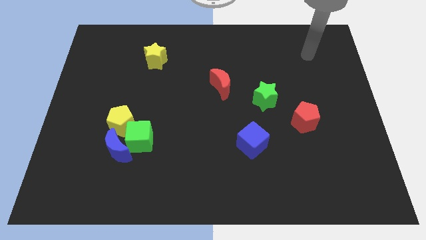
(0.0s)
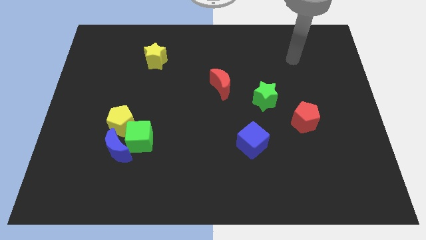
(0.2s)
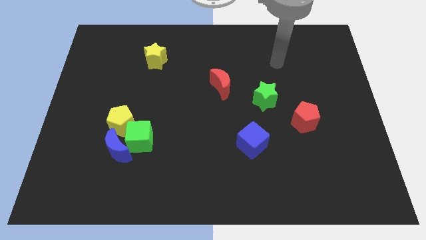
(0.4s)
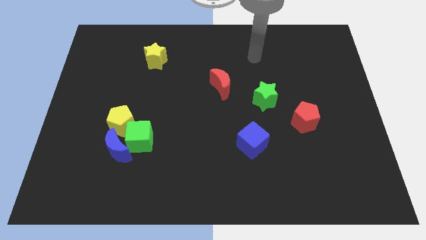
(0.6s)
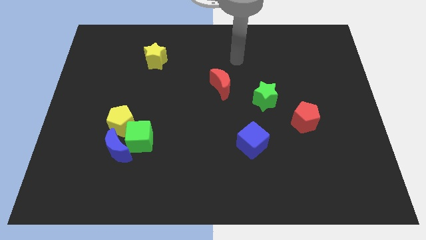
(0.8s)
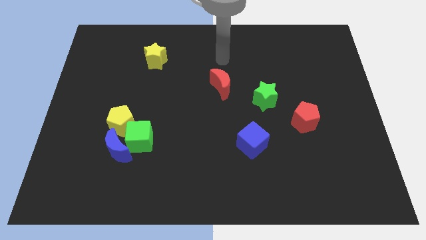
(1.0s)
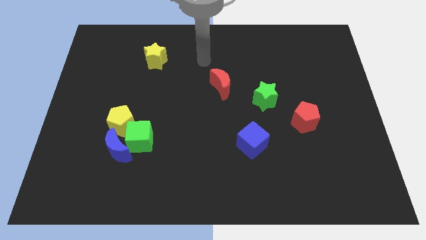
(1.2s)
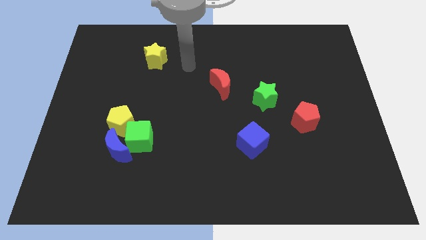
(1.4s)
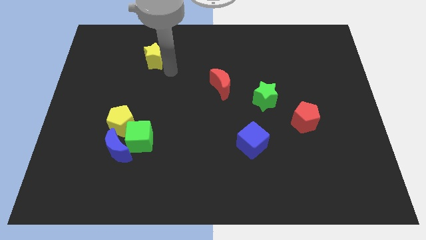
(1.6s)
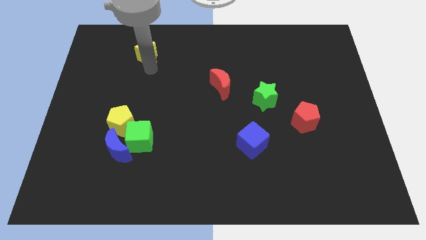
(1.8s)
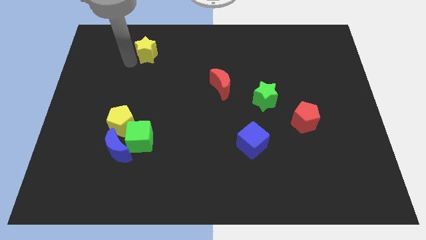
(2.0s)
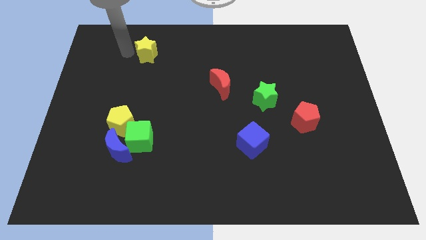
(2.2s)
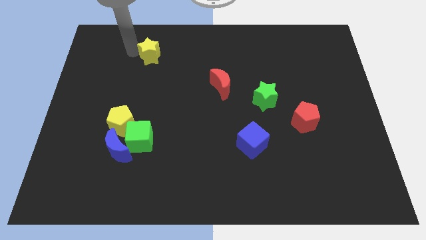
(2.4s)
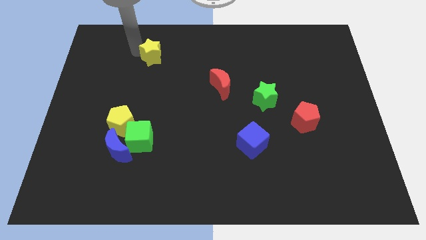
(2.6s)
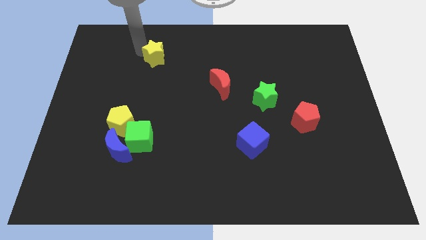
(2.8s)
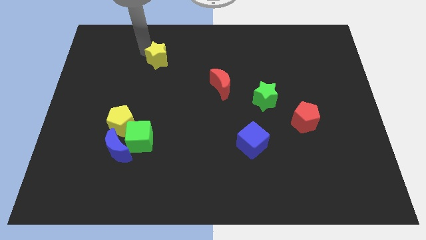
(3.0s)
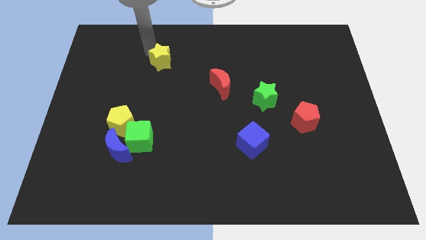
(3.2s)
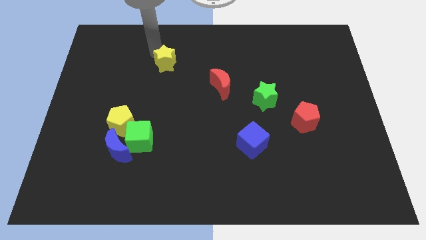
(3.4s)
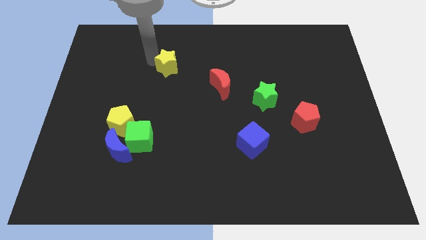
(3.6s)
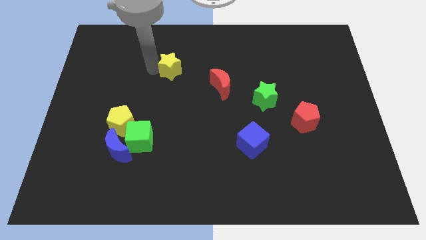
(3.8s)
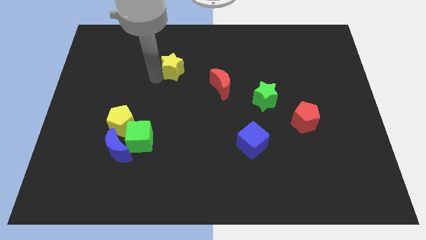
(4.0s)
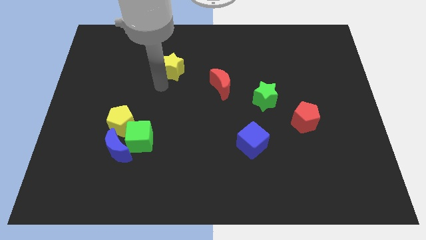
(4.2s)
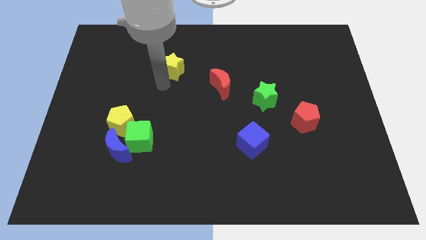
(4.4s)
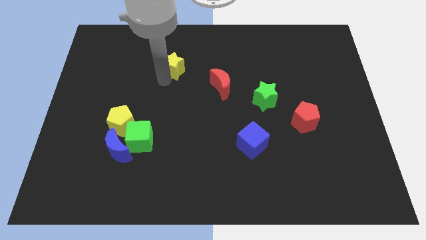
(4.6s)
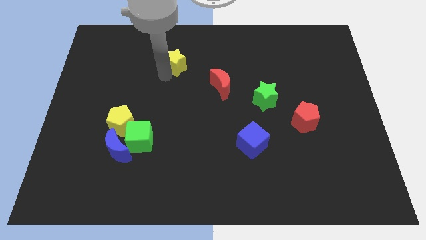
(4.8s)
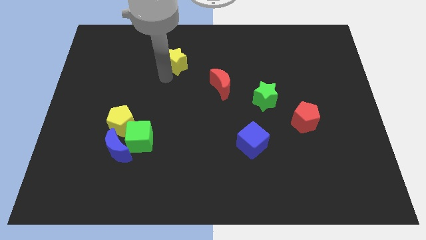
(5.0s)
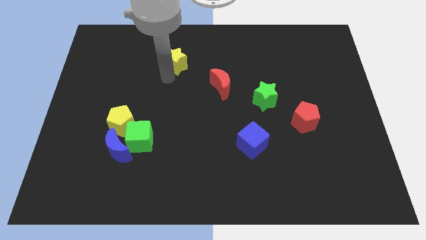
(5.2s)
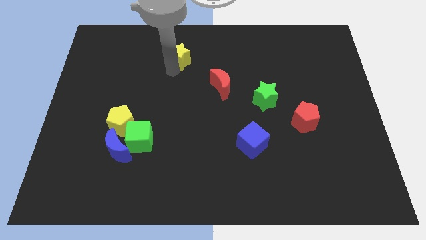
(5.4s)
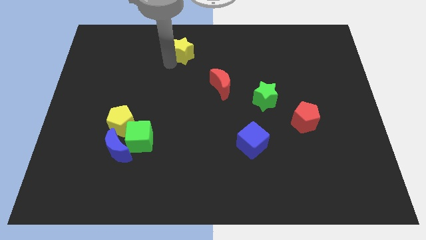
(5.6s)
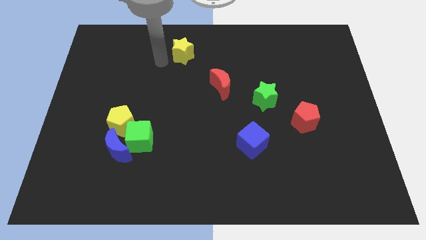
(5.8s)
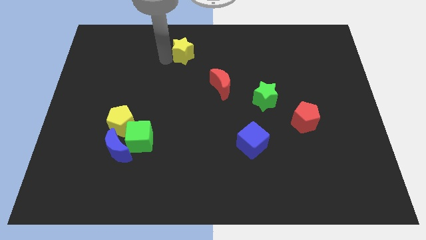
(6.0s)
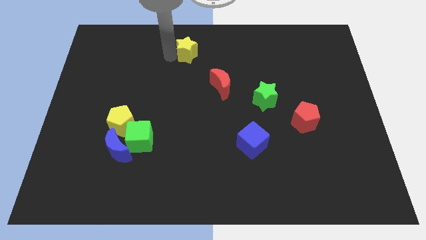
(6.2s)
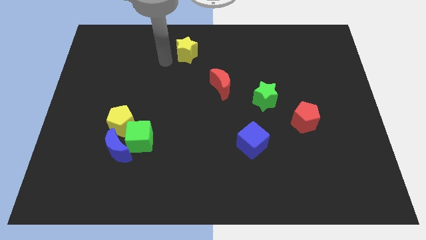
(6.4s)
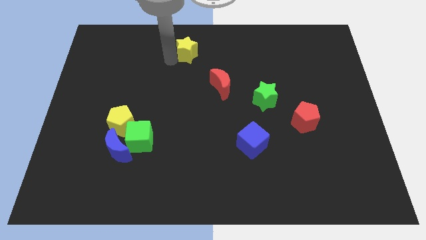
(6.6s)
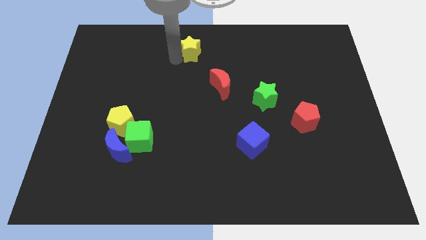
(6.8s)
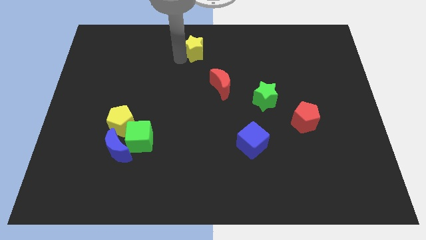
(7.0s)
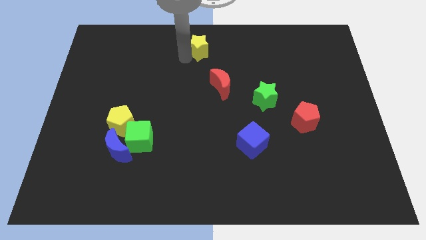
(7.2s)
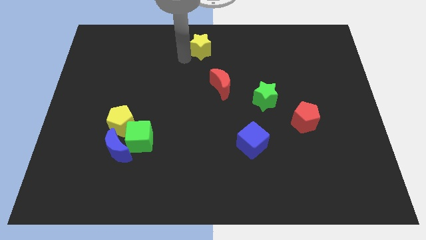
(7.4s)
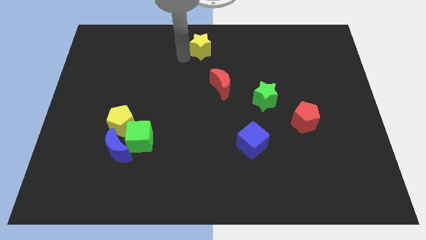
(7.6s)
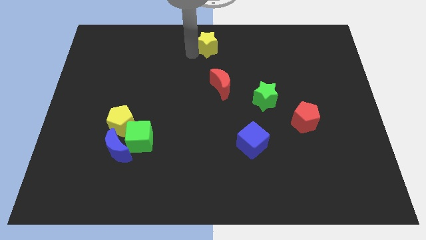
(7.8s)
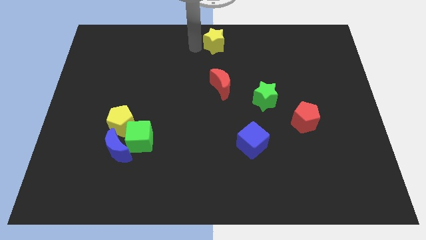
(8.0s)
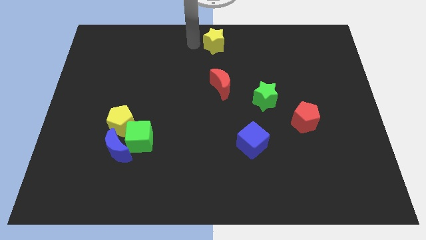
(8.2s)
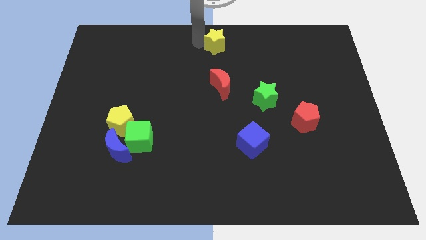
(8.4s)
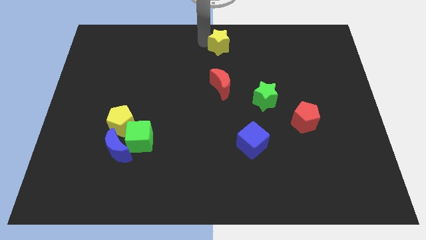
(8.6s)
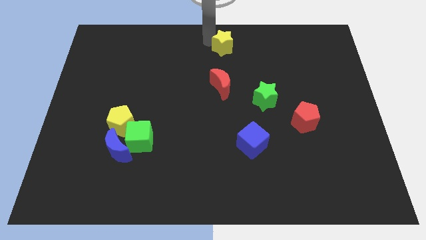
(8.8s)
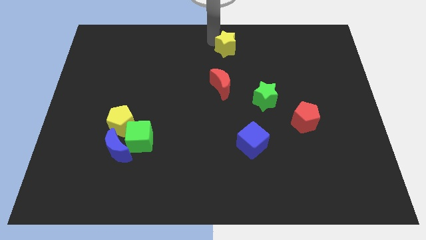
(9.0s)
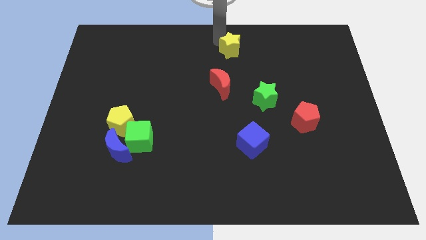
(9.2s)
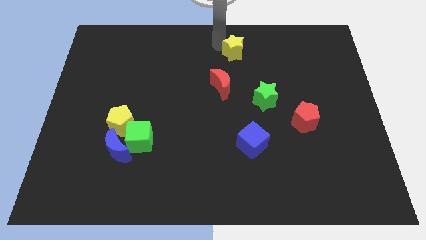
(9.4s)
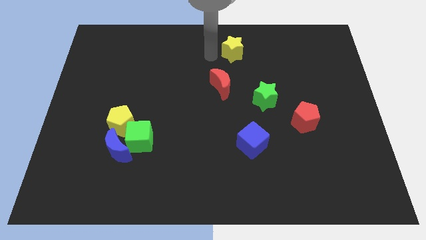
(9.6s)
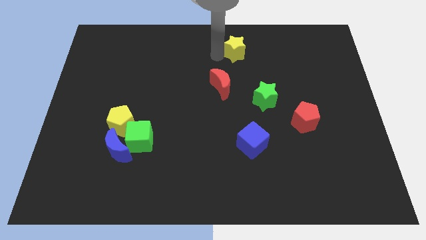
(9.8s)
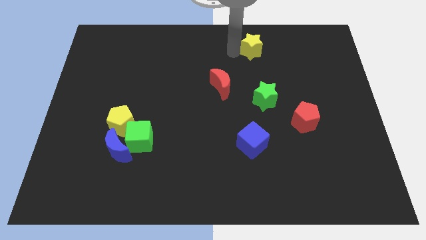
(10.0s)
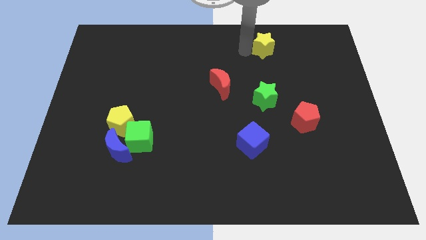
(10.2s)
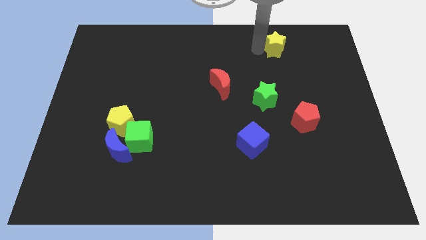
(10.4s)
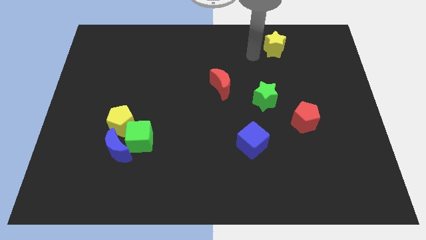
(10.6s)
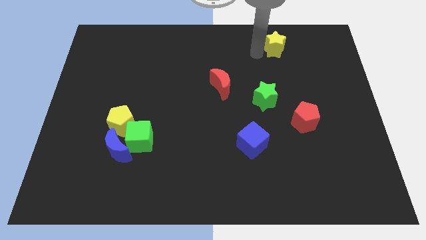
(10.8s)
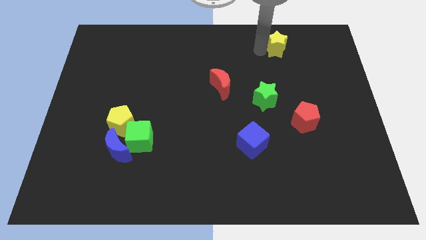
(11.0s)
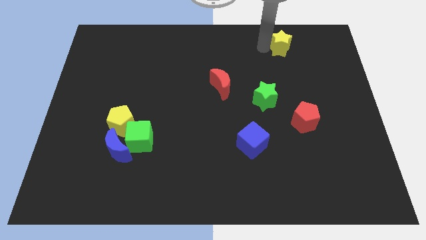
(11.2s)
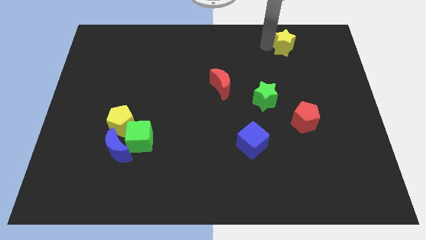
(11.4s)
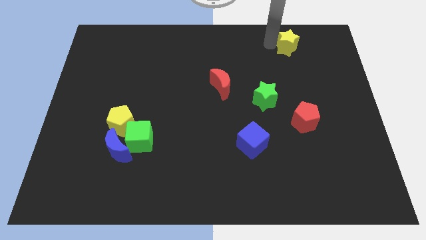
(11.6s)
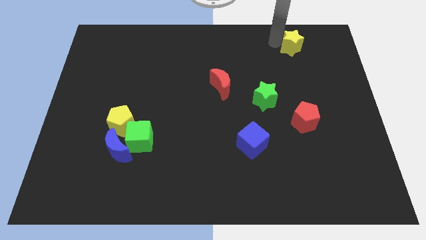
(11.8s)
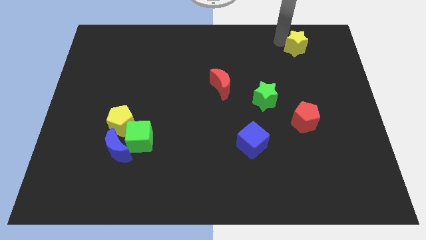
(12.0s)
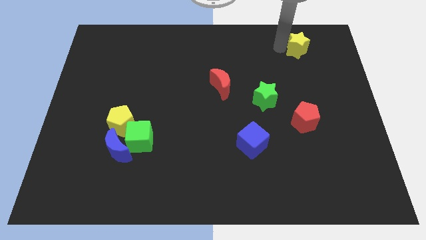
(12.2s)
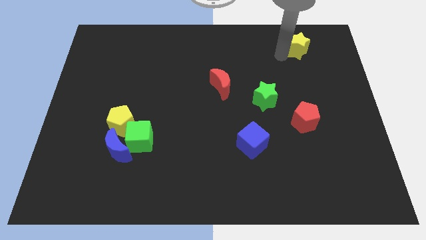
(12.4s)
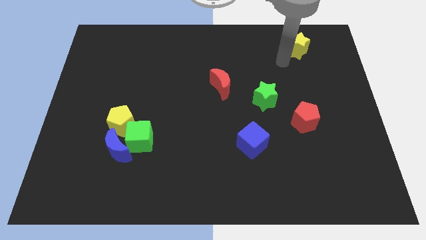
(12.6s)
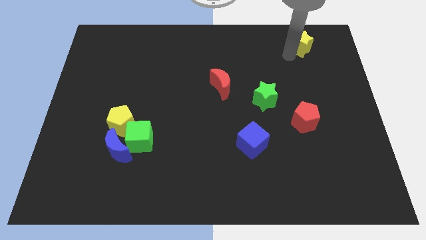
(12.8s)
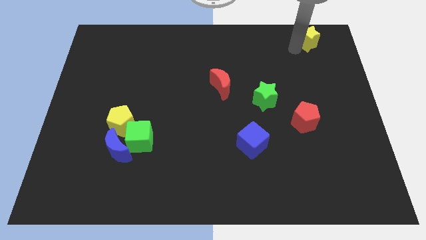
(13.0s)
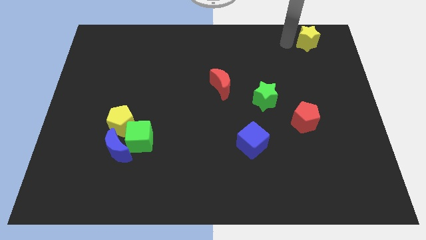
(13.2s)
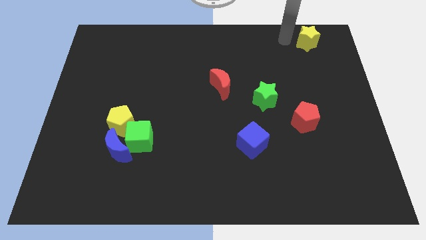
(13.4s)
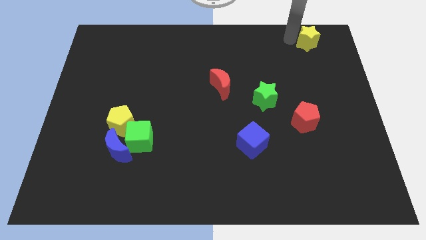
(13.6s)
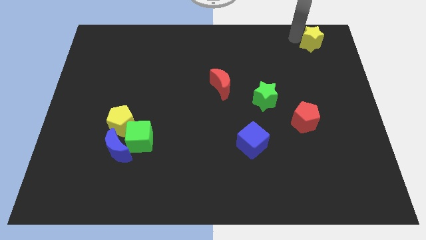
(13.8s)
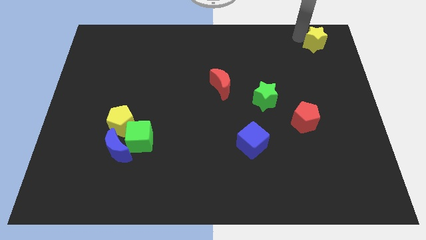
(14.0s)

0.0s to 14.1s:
put the yellow star to the upper right corner
